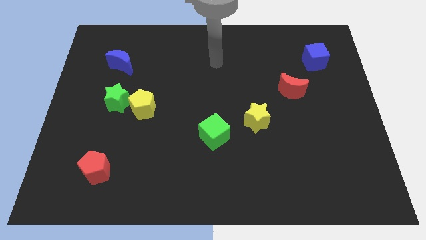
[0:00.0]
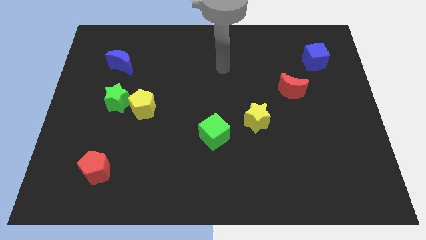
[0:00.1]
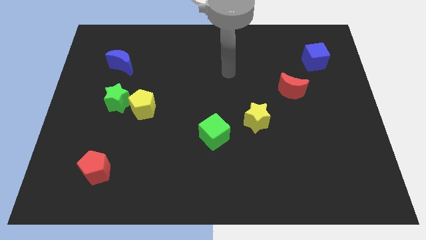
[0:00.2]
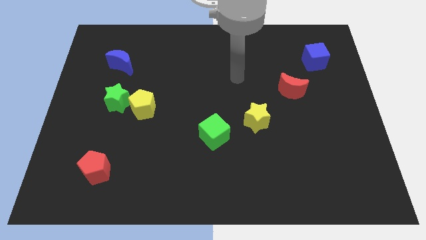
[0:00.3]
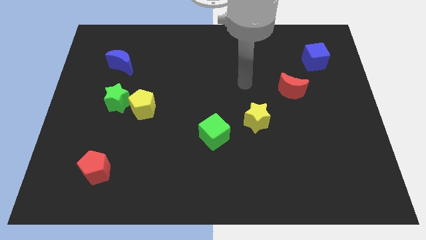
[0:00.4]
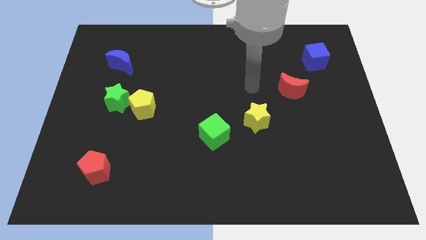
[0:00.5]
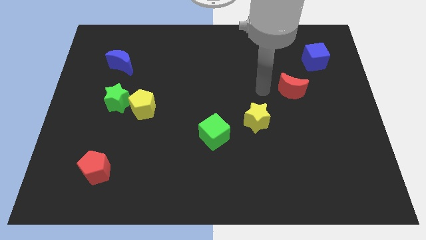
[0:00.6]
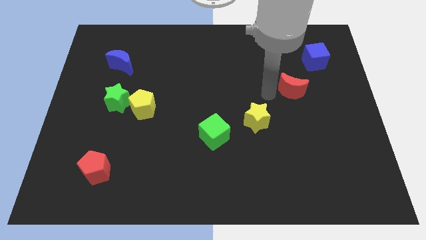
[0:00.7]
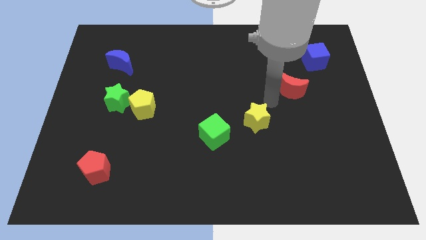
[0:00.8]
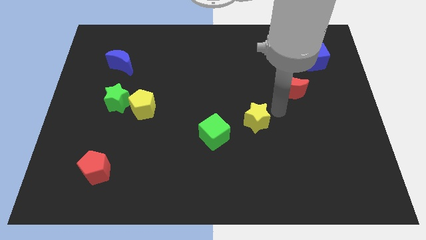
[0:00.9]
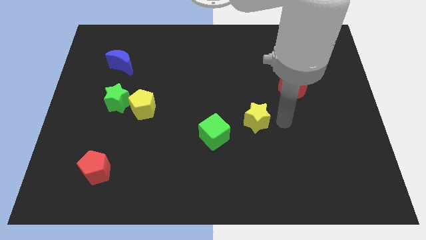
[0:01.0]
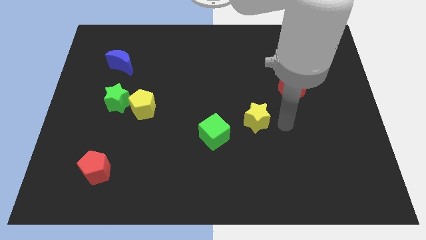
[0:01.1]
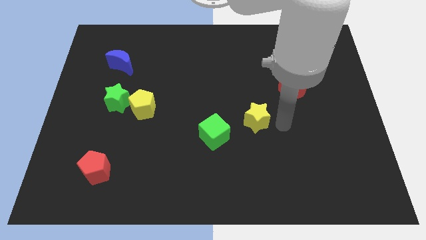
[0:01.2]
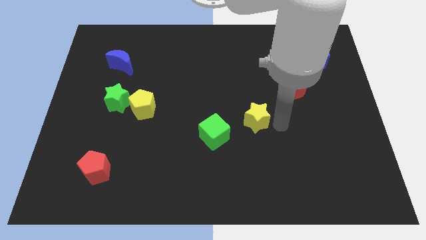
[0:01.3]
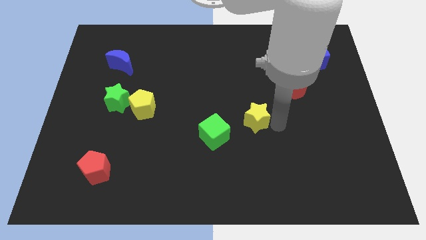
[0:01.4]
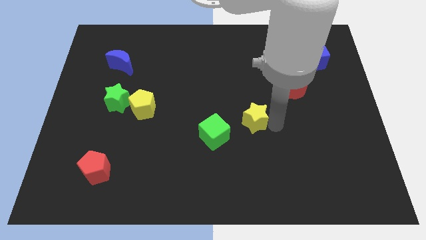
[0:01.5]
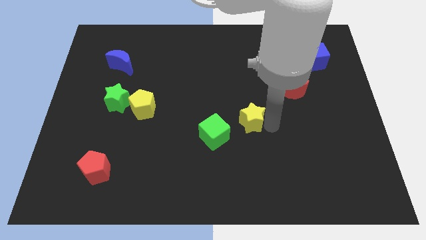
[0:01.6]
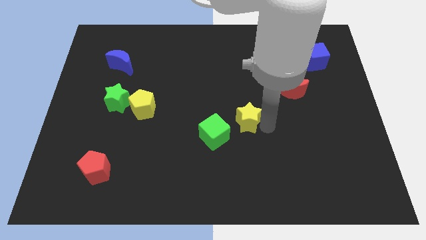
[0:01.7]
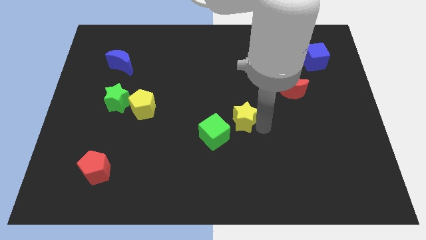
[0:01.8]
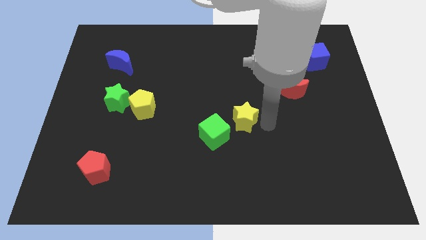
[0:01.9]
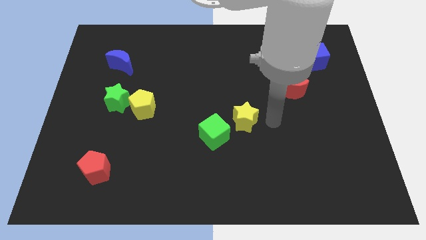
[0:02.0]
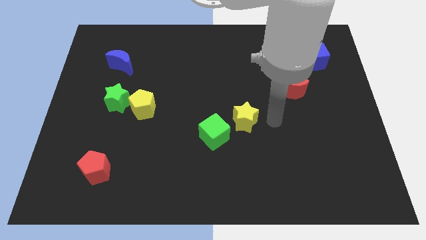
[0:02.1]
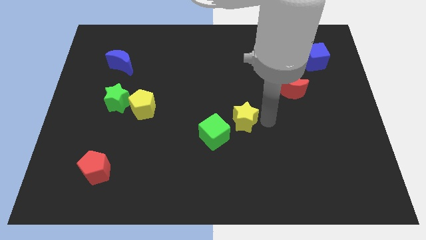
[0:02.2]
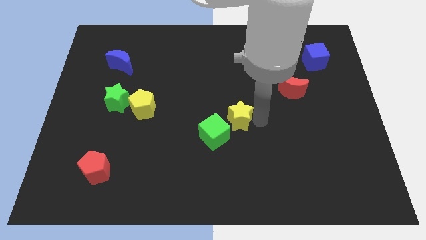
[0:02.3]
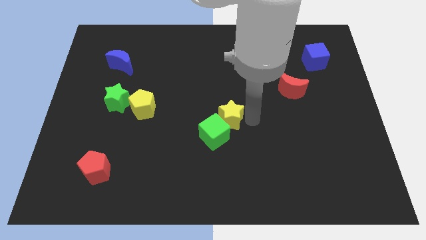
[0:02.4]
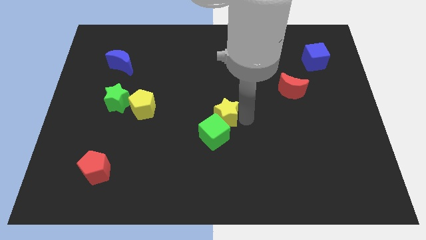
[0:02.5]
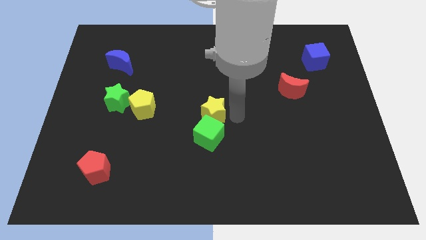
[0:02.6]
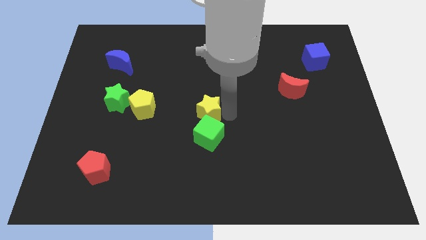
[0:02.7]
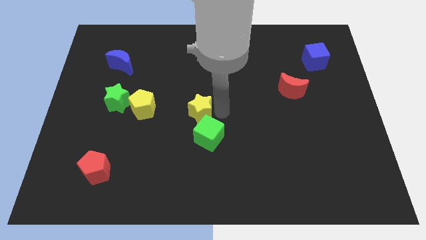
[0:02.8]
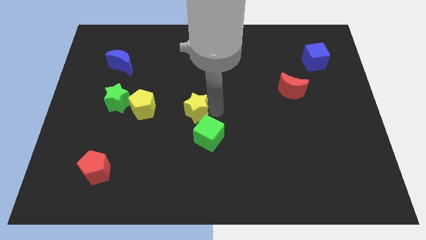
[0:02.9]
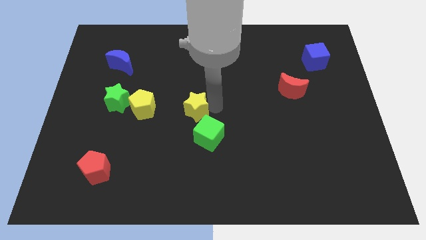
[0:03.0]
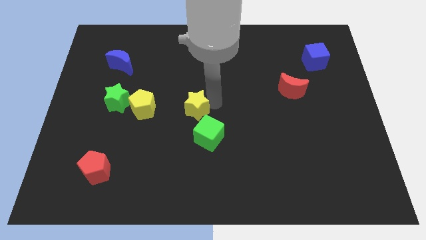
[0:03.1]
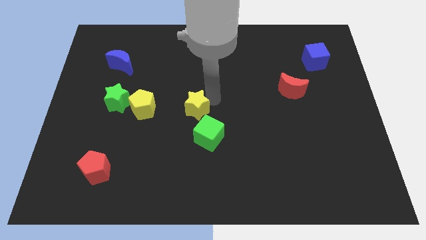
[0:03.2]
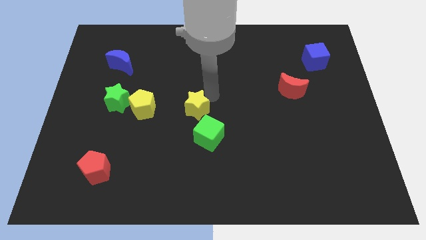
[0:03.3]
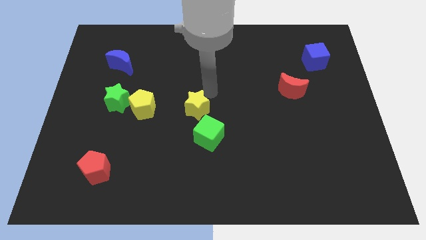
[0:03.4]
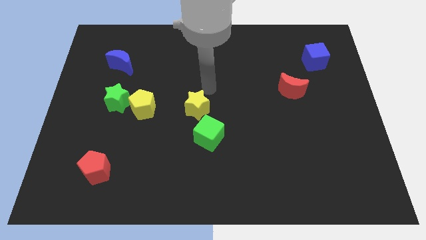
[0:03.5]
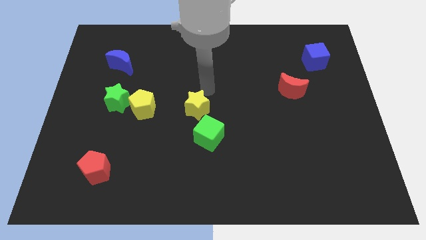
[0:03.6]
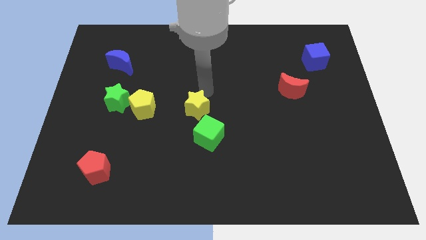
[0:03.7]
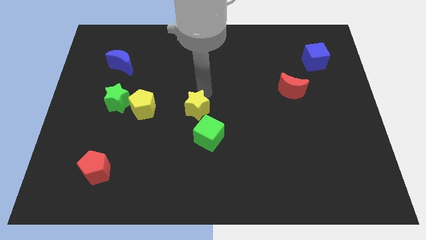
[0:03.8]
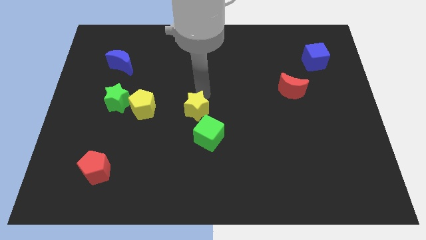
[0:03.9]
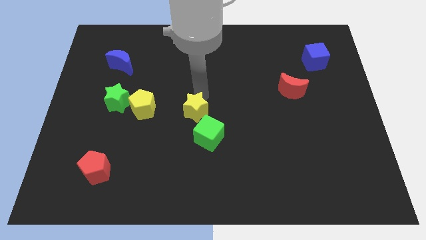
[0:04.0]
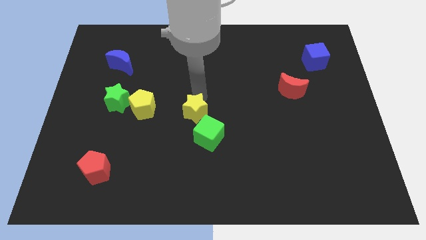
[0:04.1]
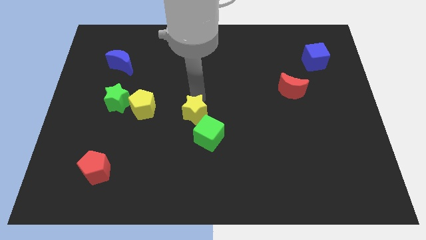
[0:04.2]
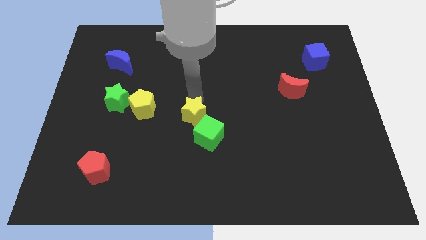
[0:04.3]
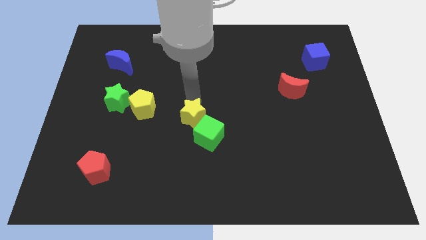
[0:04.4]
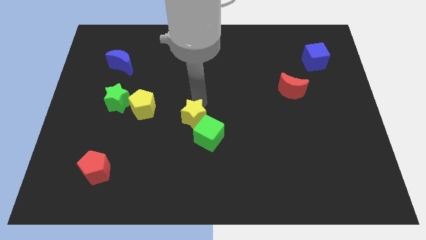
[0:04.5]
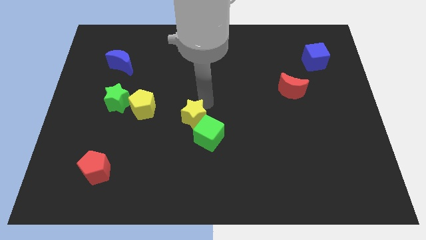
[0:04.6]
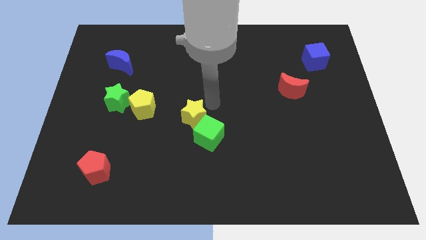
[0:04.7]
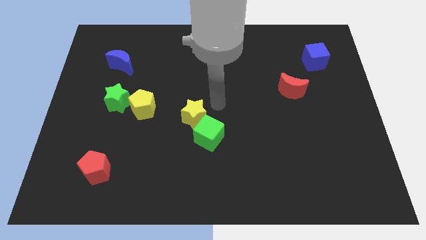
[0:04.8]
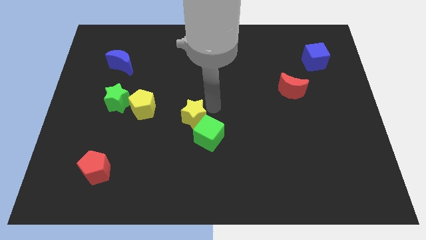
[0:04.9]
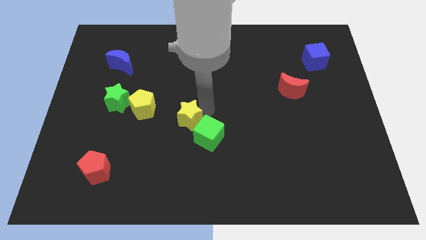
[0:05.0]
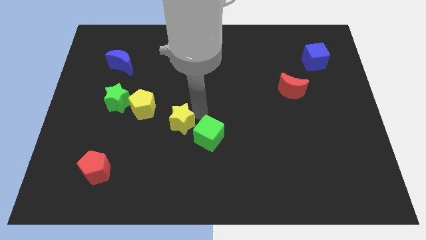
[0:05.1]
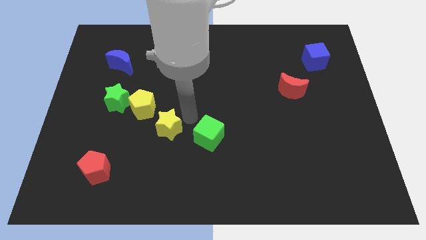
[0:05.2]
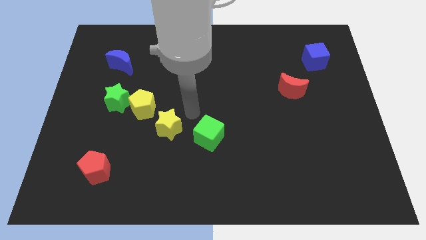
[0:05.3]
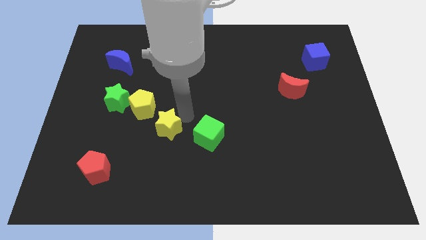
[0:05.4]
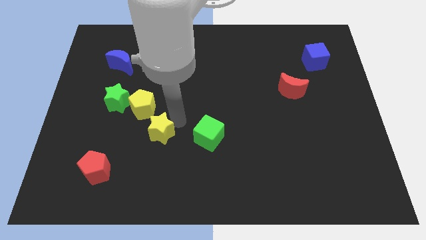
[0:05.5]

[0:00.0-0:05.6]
put the yellow star to the bottom side of the yellow pentagon
